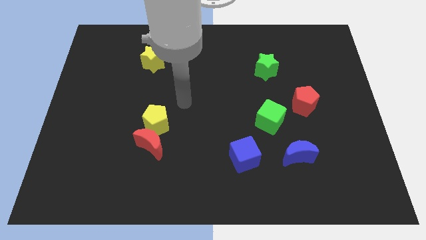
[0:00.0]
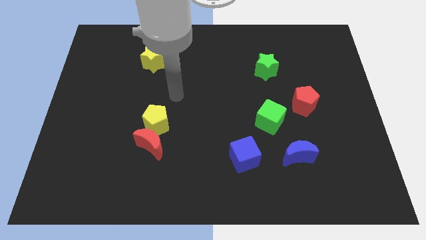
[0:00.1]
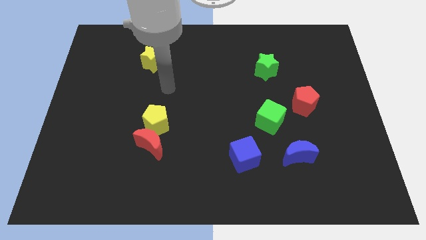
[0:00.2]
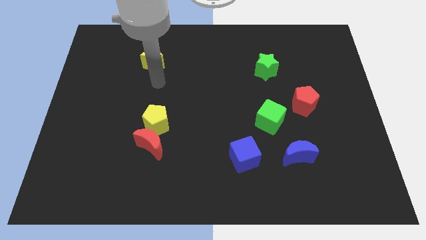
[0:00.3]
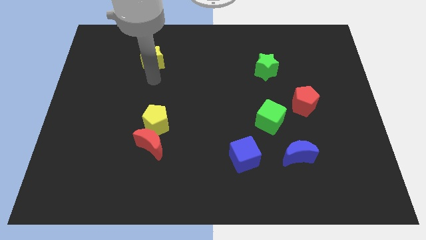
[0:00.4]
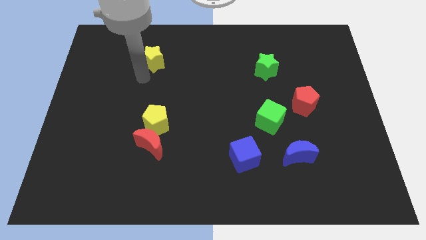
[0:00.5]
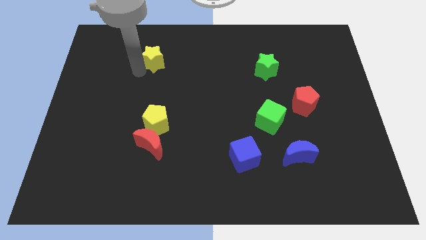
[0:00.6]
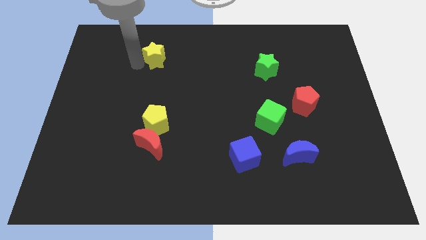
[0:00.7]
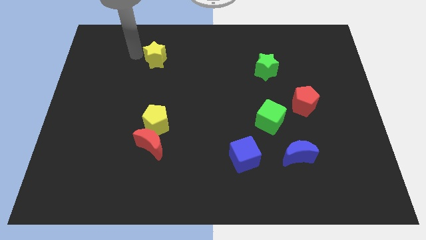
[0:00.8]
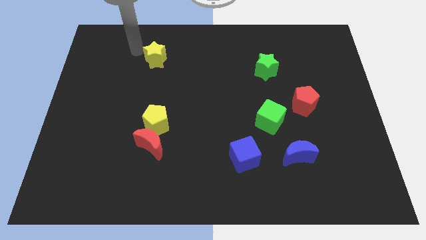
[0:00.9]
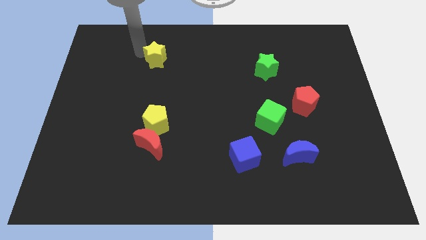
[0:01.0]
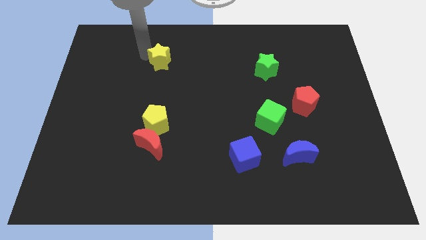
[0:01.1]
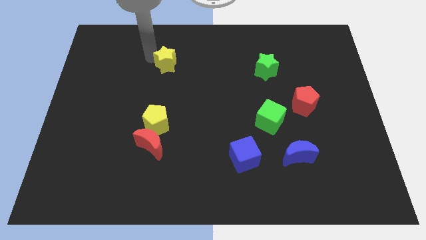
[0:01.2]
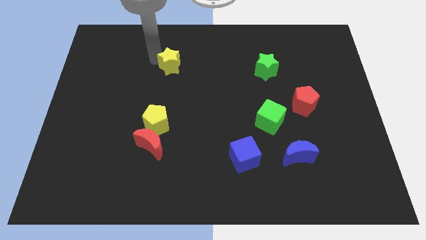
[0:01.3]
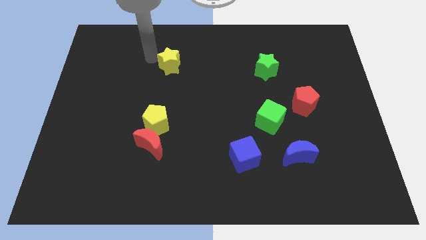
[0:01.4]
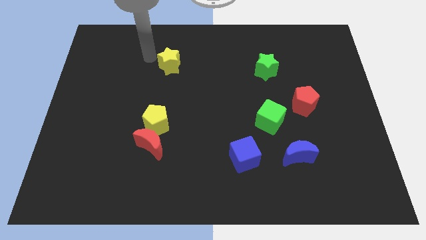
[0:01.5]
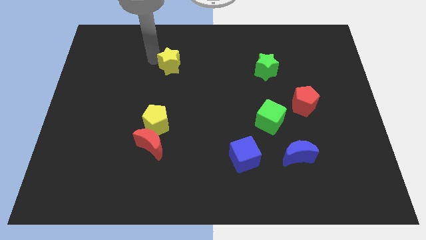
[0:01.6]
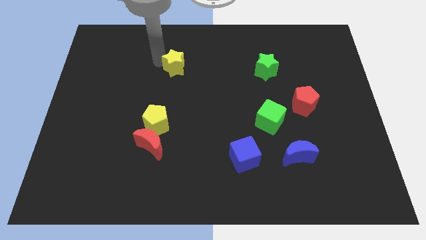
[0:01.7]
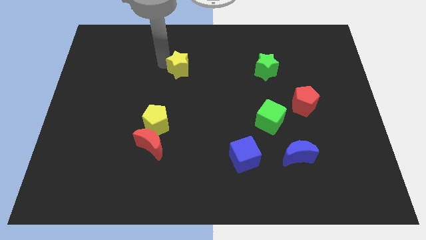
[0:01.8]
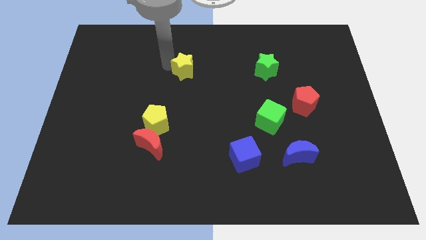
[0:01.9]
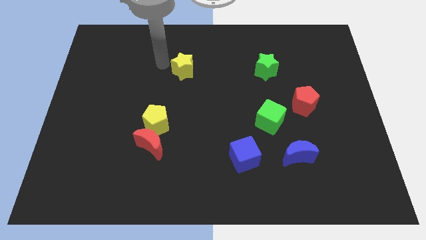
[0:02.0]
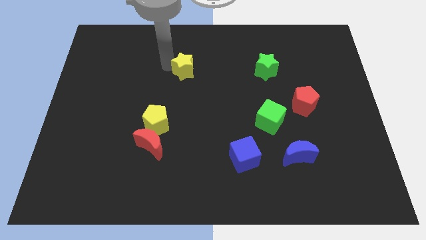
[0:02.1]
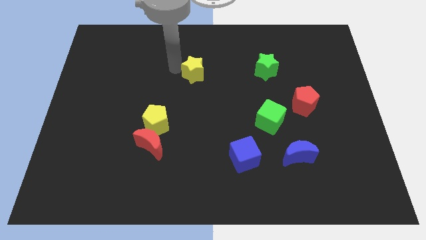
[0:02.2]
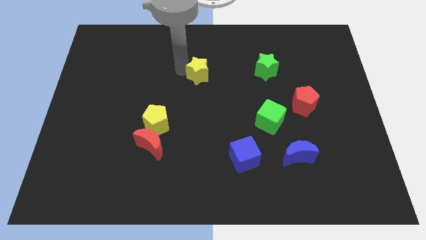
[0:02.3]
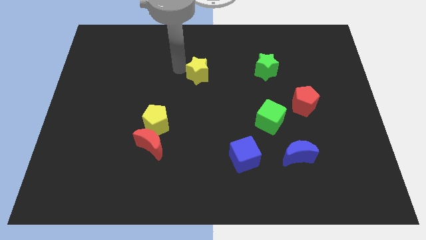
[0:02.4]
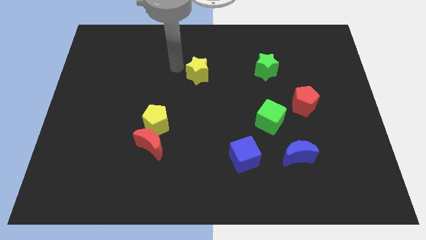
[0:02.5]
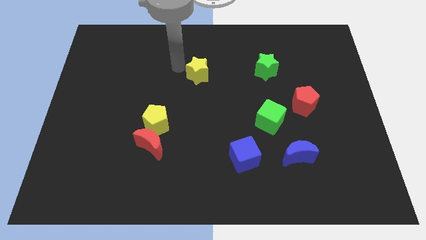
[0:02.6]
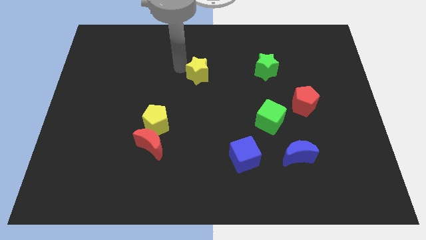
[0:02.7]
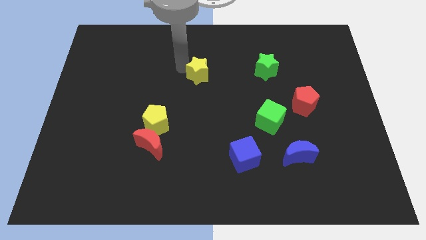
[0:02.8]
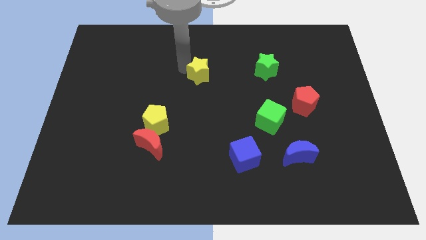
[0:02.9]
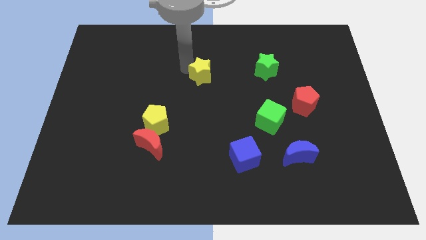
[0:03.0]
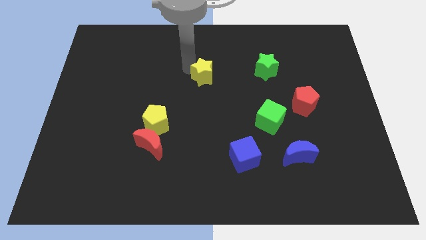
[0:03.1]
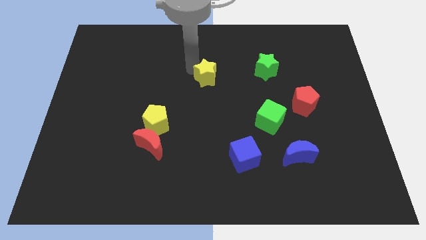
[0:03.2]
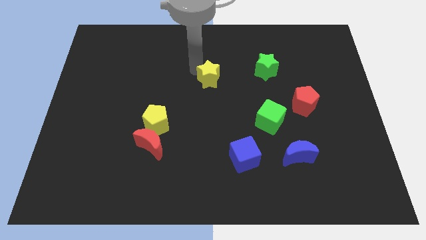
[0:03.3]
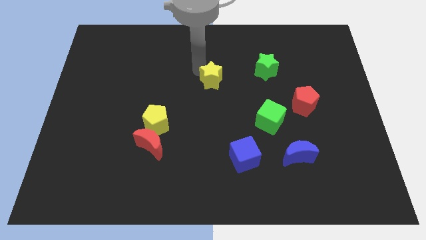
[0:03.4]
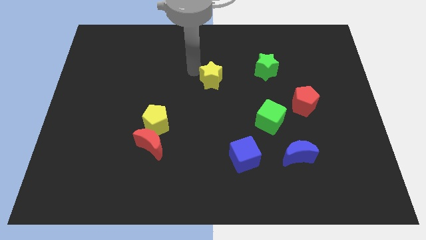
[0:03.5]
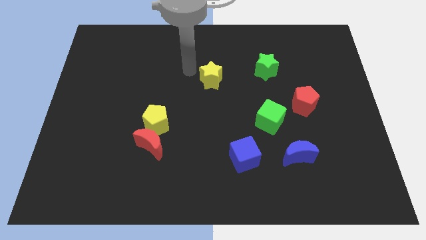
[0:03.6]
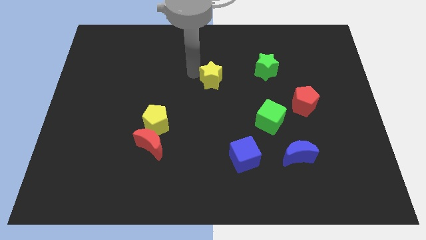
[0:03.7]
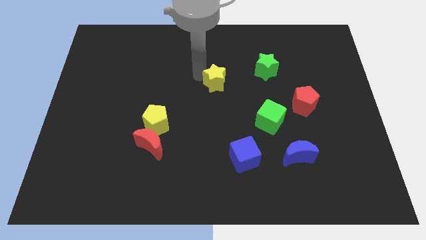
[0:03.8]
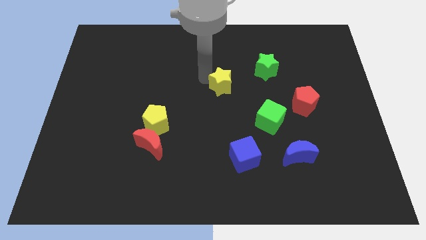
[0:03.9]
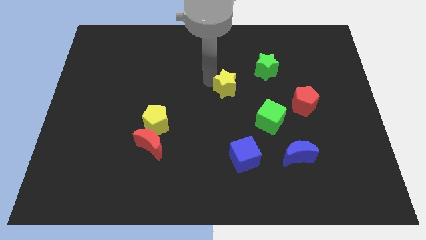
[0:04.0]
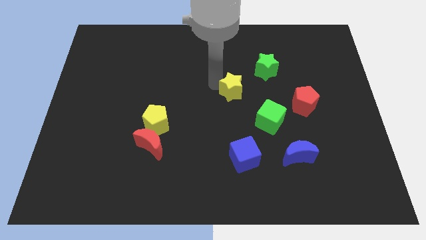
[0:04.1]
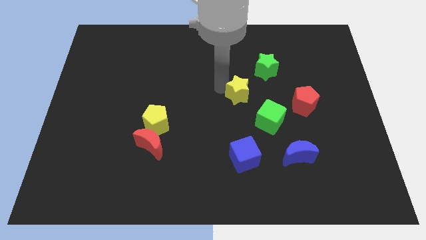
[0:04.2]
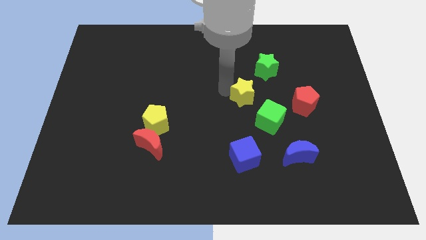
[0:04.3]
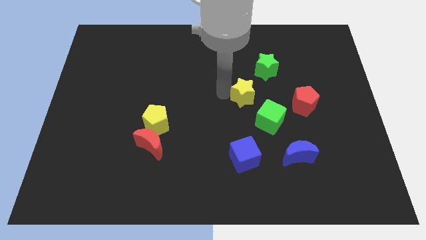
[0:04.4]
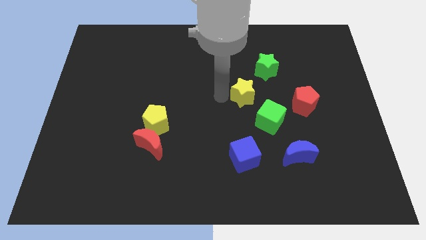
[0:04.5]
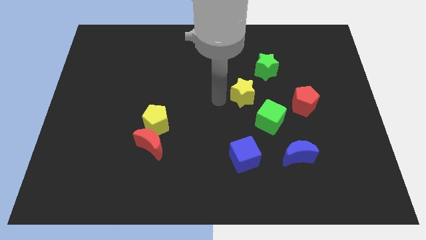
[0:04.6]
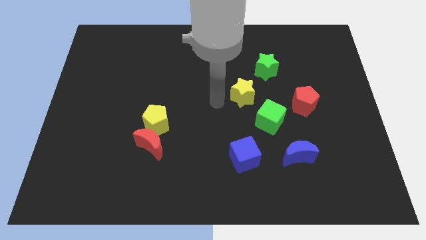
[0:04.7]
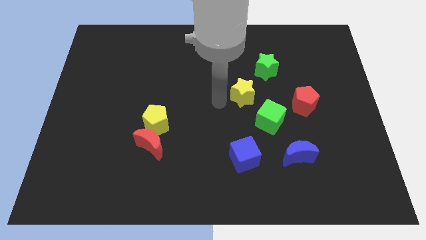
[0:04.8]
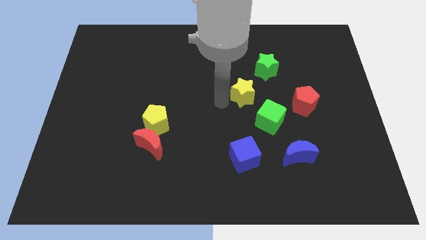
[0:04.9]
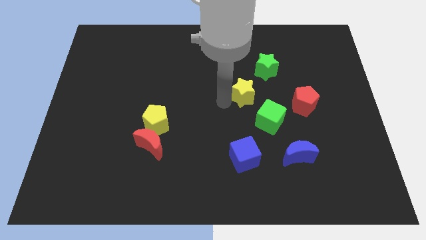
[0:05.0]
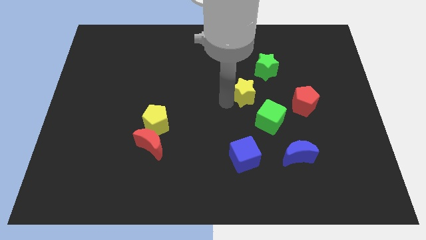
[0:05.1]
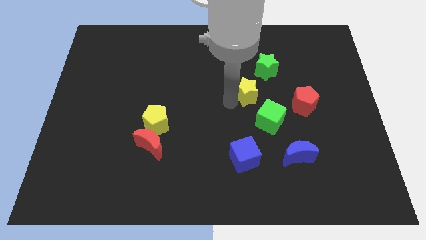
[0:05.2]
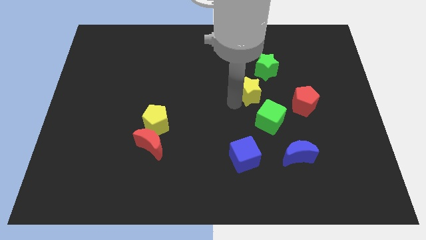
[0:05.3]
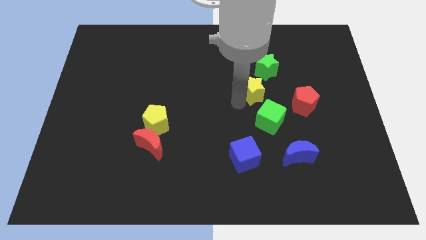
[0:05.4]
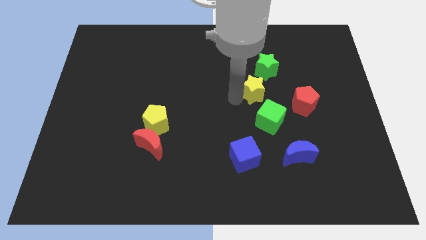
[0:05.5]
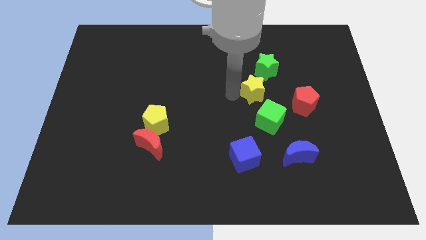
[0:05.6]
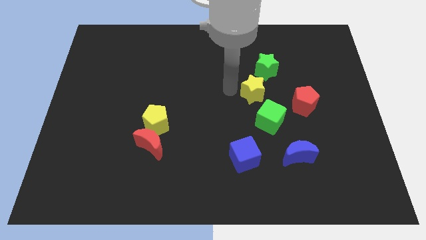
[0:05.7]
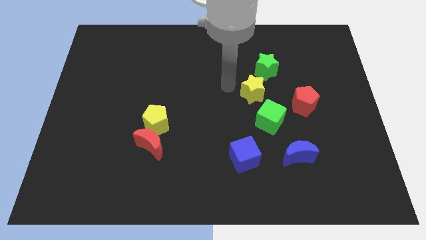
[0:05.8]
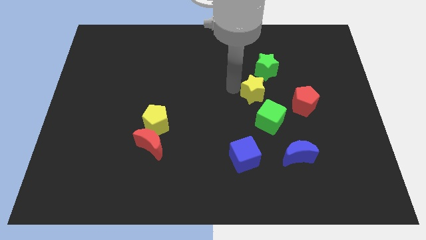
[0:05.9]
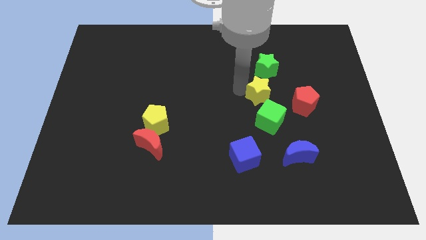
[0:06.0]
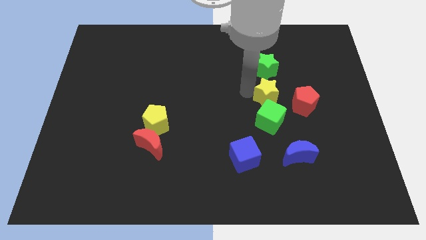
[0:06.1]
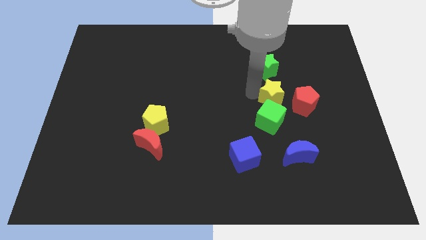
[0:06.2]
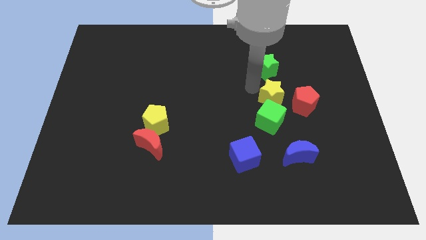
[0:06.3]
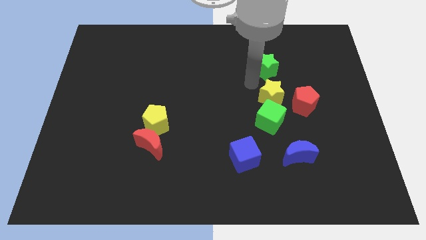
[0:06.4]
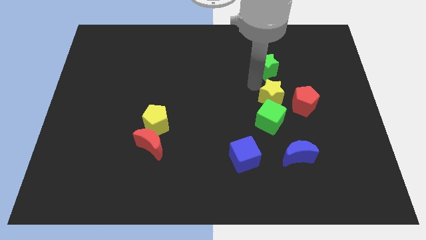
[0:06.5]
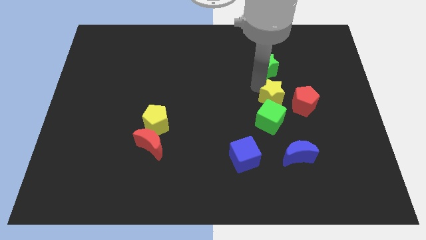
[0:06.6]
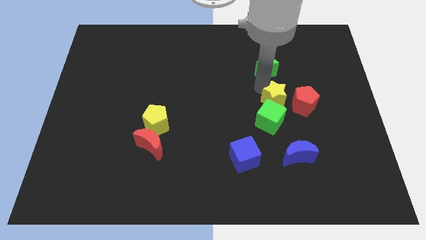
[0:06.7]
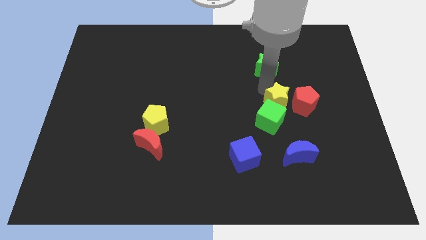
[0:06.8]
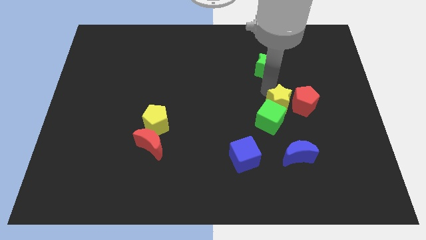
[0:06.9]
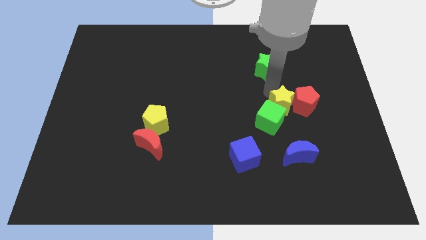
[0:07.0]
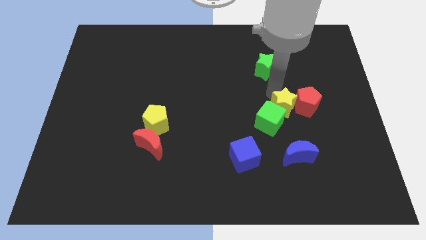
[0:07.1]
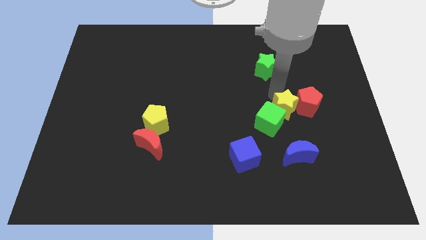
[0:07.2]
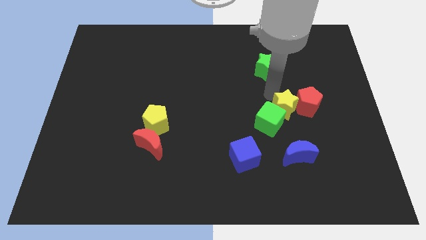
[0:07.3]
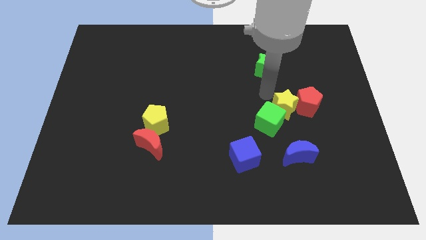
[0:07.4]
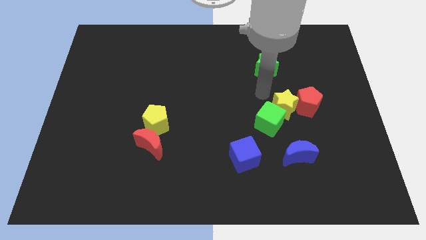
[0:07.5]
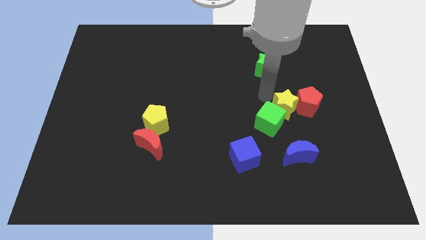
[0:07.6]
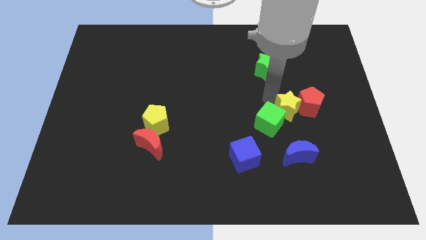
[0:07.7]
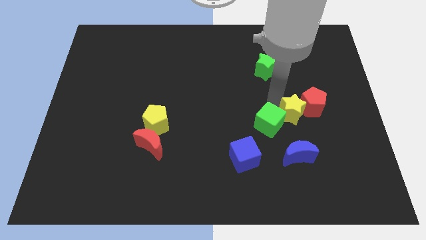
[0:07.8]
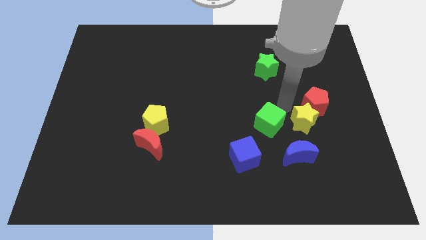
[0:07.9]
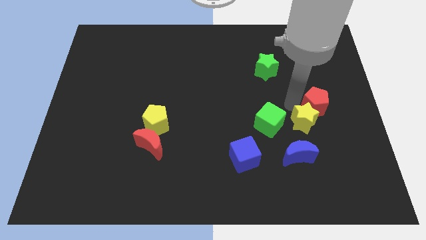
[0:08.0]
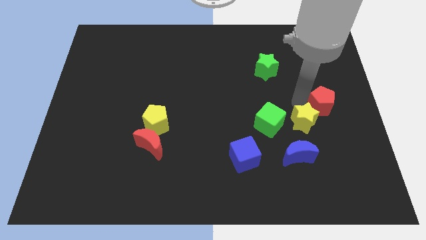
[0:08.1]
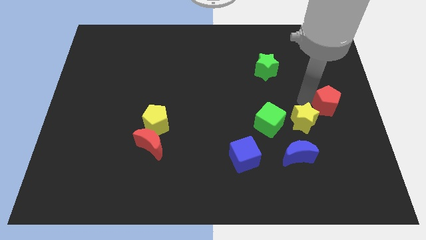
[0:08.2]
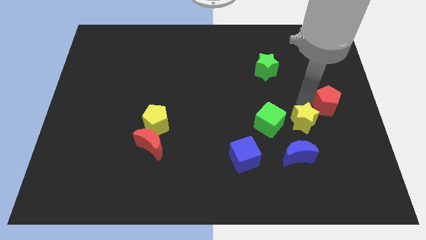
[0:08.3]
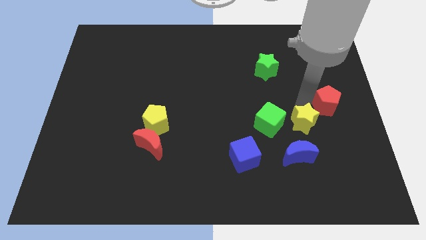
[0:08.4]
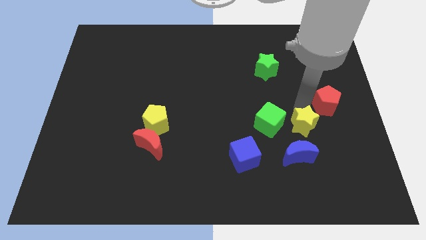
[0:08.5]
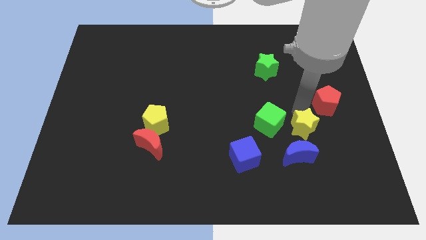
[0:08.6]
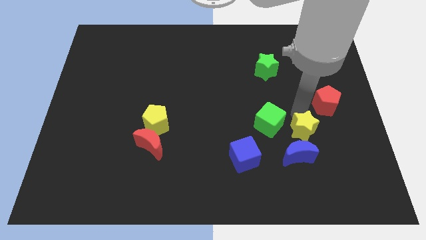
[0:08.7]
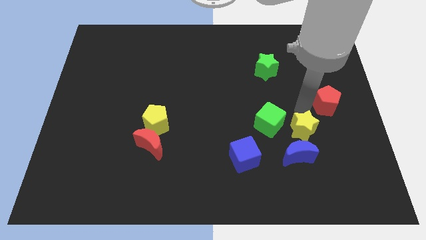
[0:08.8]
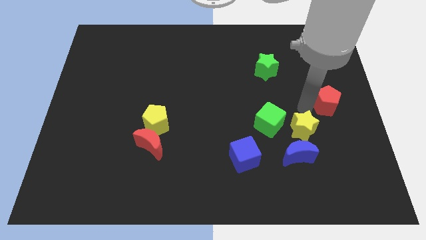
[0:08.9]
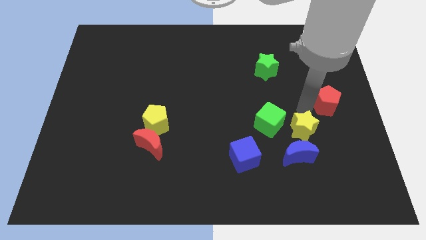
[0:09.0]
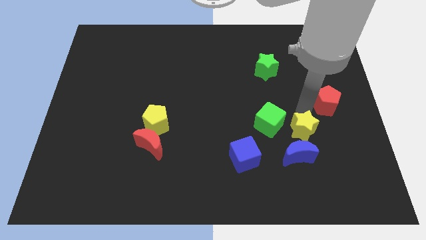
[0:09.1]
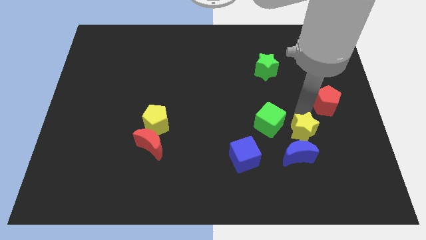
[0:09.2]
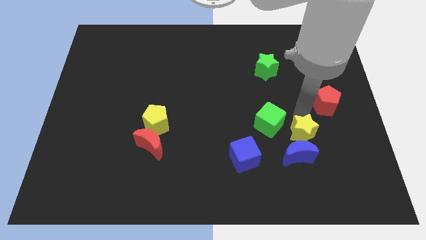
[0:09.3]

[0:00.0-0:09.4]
put the yellow star towards the blue moon
